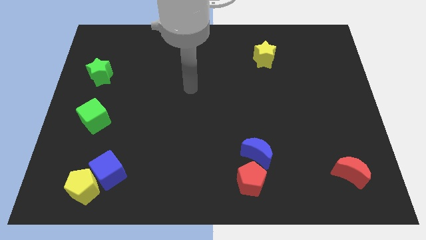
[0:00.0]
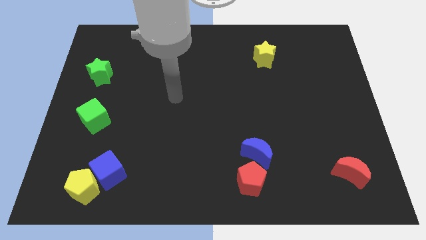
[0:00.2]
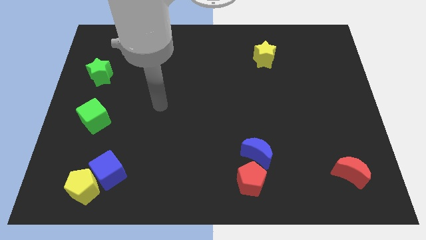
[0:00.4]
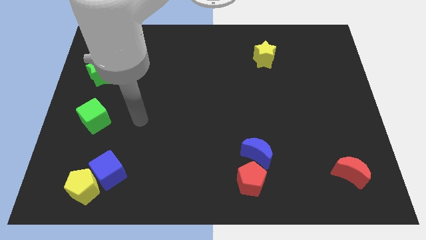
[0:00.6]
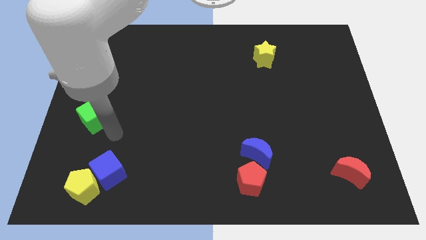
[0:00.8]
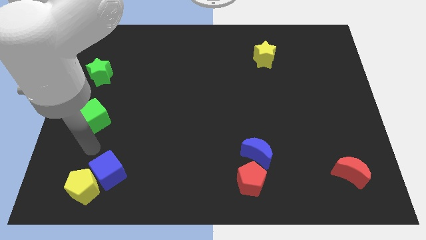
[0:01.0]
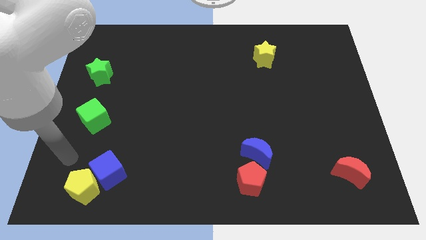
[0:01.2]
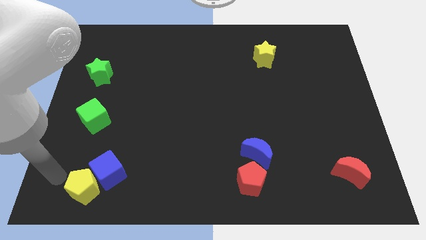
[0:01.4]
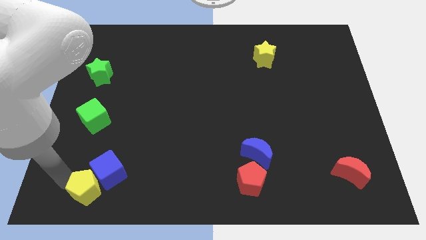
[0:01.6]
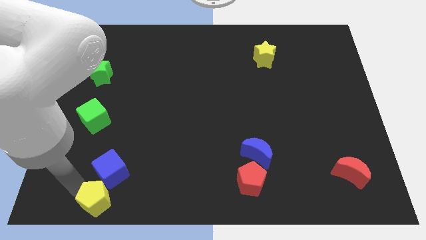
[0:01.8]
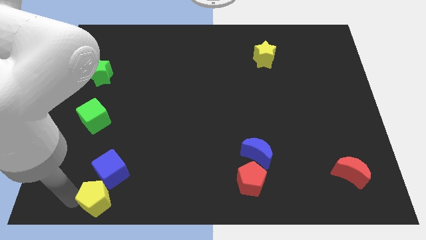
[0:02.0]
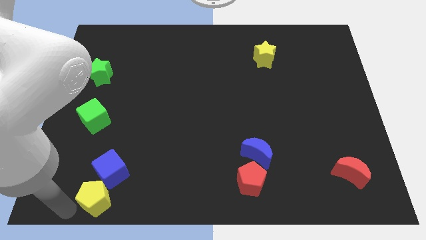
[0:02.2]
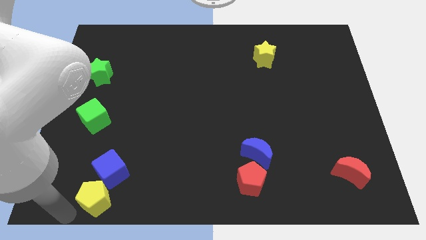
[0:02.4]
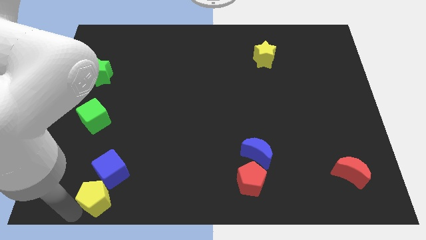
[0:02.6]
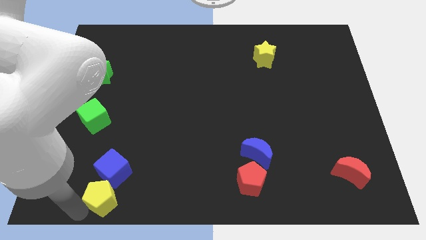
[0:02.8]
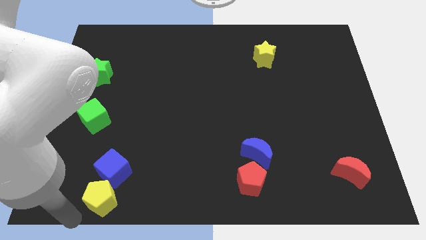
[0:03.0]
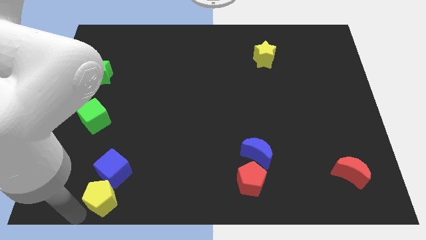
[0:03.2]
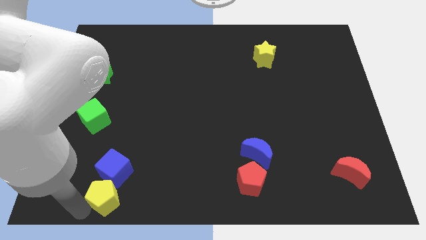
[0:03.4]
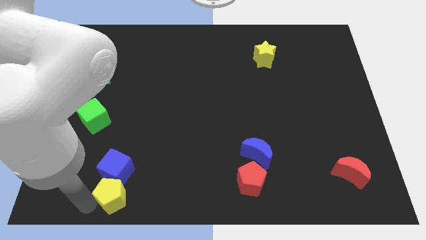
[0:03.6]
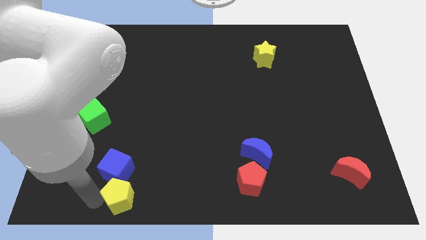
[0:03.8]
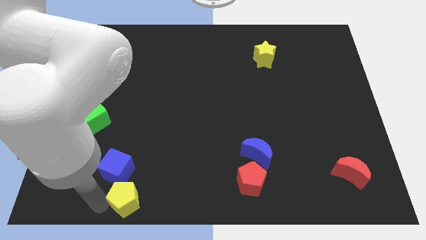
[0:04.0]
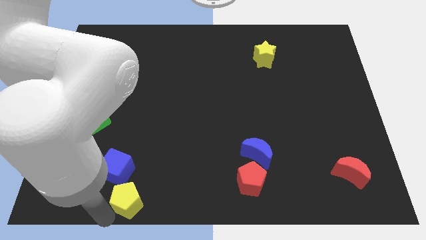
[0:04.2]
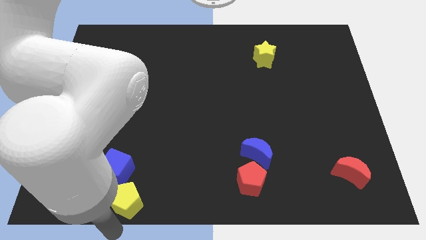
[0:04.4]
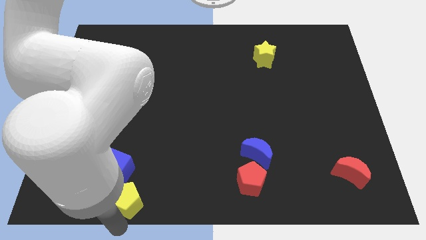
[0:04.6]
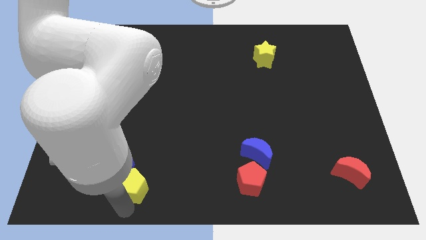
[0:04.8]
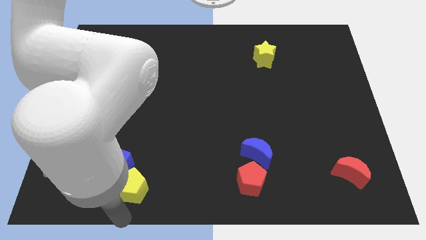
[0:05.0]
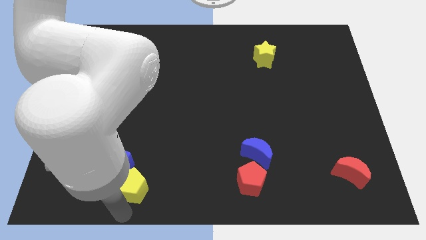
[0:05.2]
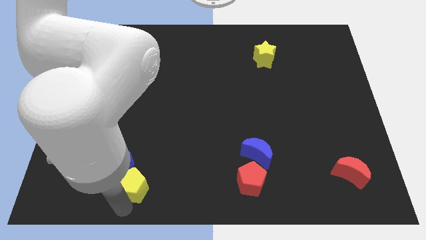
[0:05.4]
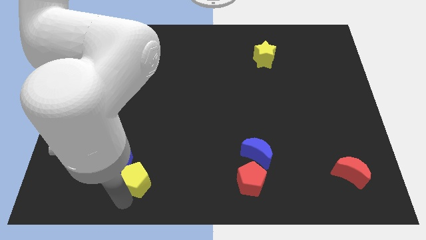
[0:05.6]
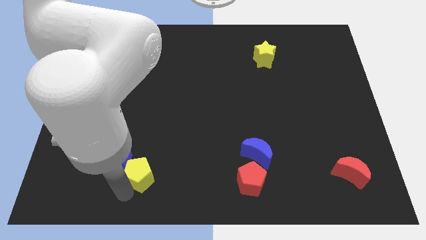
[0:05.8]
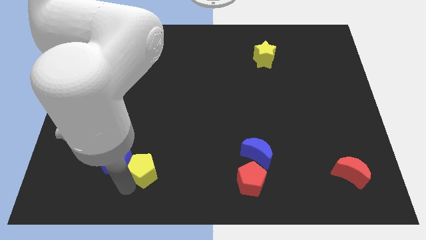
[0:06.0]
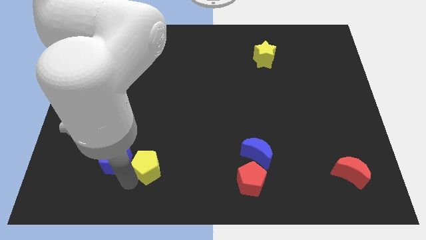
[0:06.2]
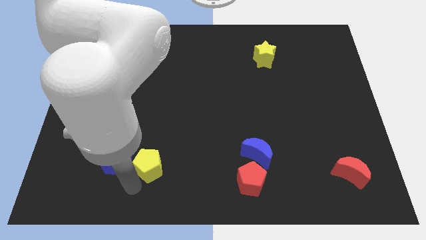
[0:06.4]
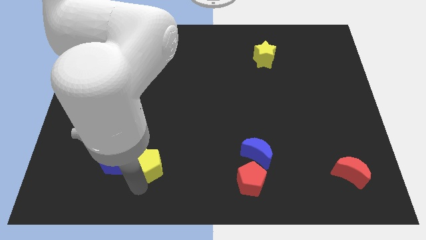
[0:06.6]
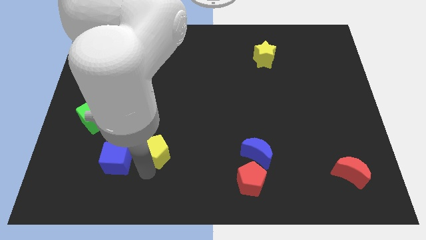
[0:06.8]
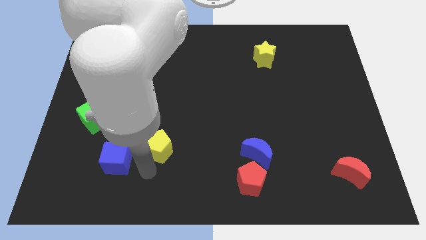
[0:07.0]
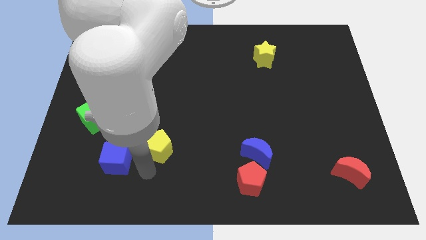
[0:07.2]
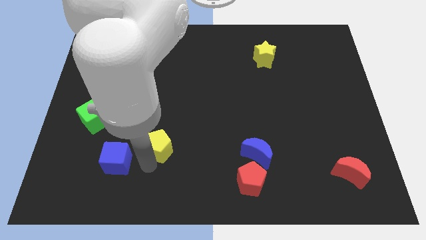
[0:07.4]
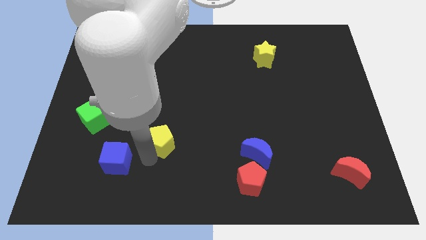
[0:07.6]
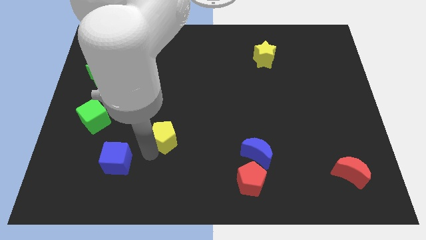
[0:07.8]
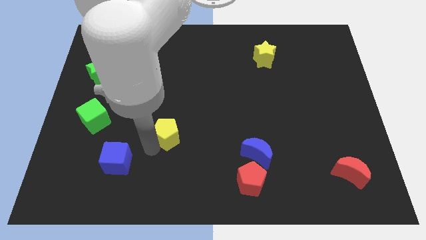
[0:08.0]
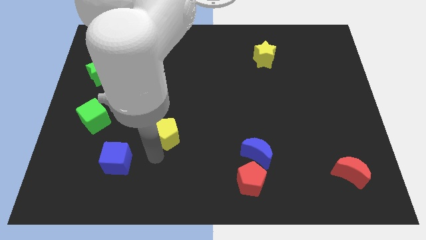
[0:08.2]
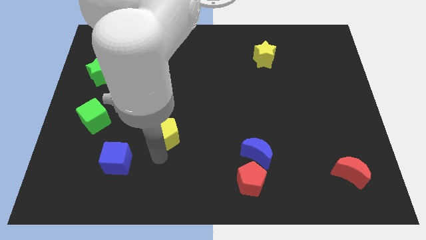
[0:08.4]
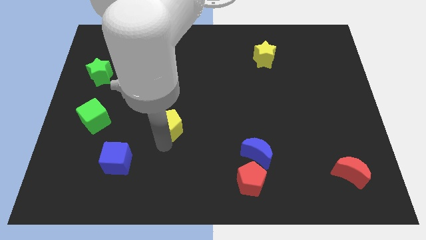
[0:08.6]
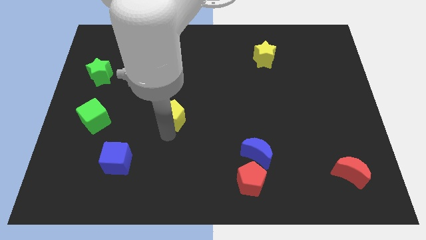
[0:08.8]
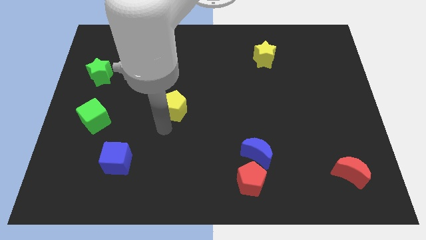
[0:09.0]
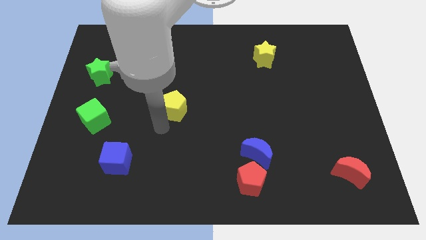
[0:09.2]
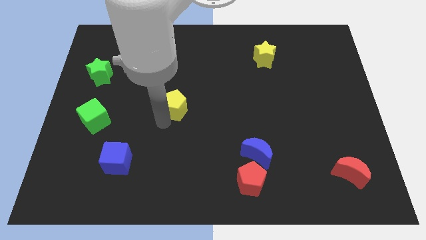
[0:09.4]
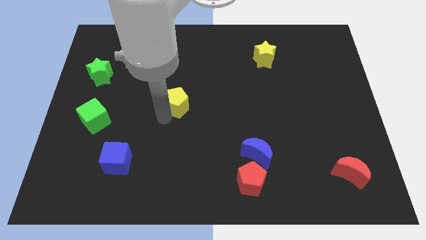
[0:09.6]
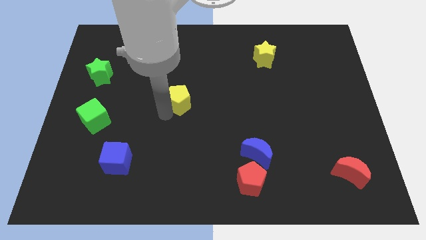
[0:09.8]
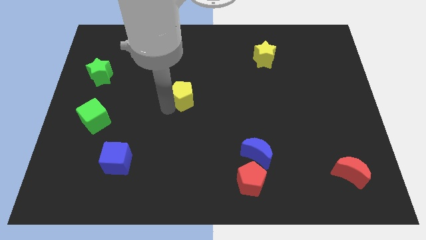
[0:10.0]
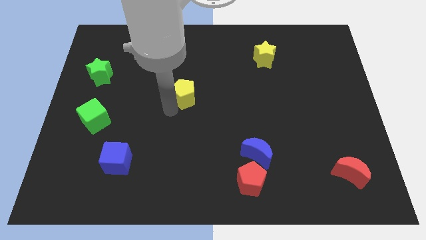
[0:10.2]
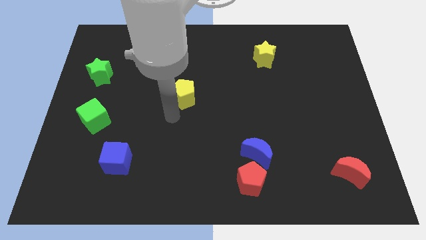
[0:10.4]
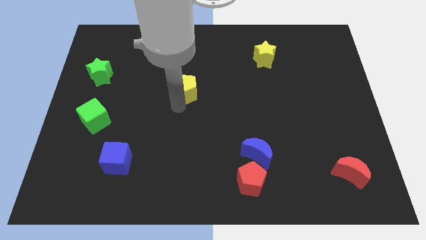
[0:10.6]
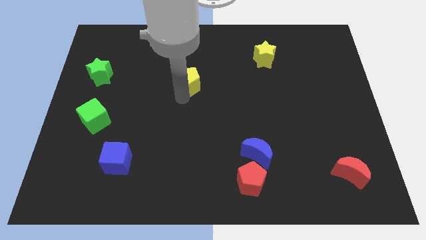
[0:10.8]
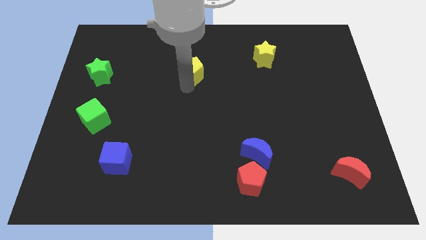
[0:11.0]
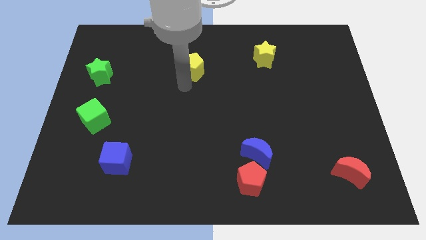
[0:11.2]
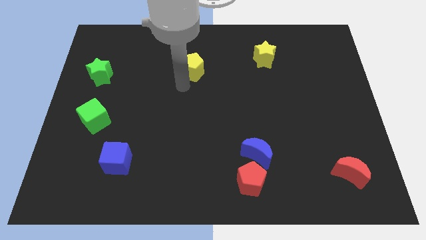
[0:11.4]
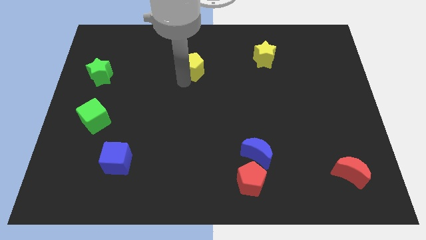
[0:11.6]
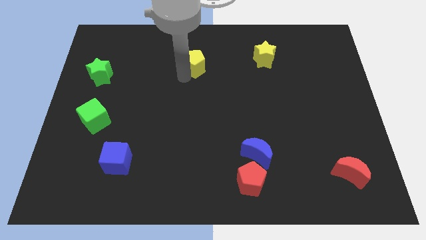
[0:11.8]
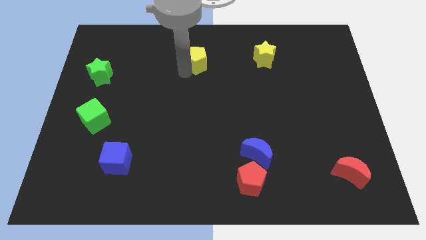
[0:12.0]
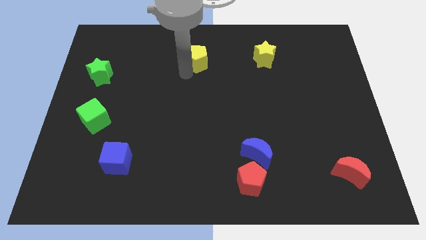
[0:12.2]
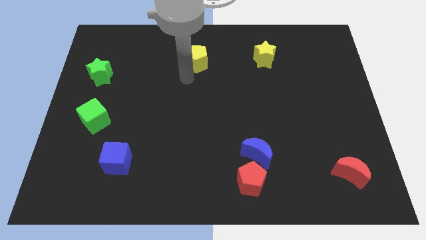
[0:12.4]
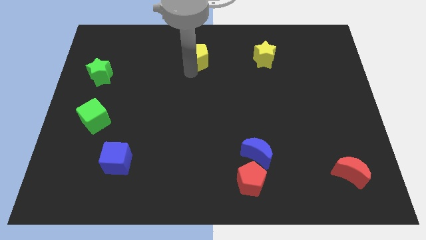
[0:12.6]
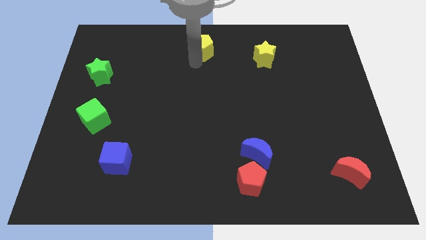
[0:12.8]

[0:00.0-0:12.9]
move the yellow pentagon to the towards your base
